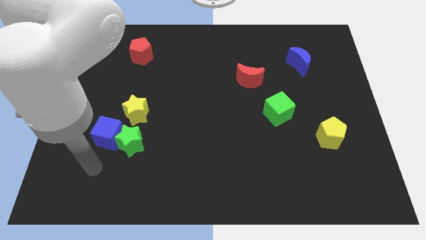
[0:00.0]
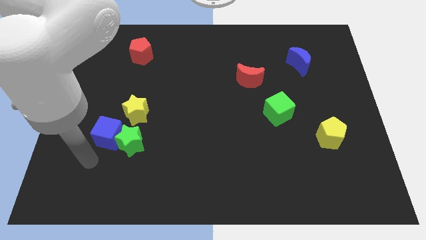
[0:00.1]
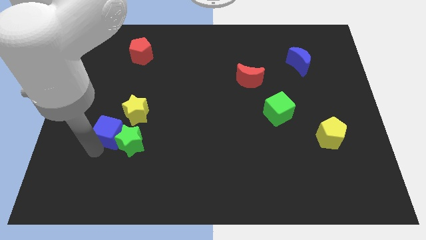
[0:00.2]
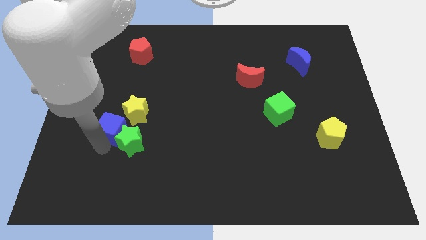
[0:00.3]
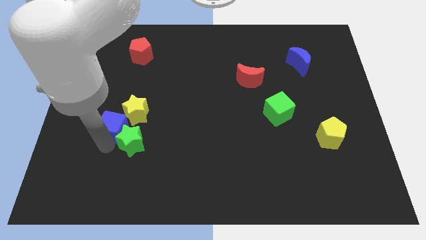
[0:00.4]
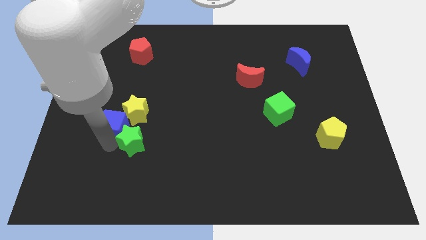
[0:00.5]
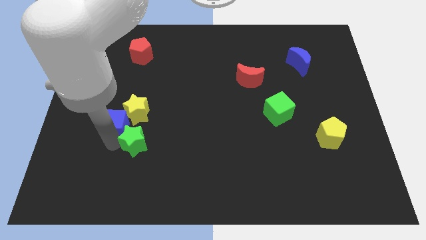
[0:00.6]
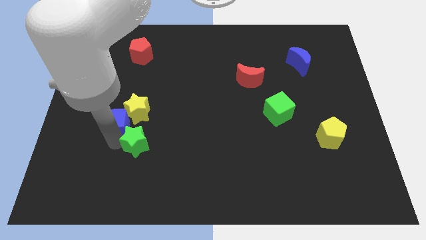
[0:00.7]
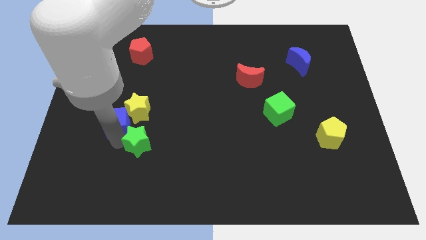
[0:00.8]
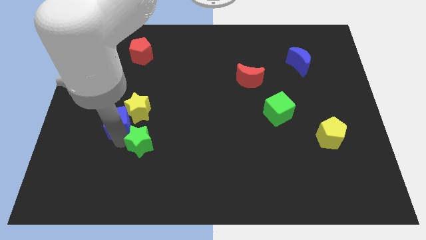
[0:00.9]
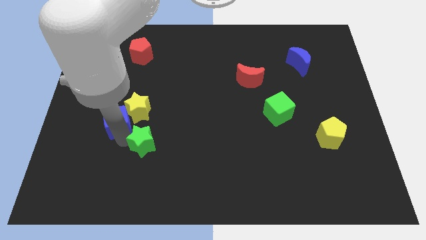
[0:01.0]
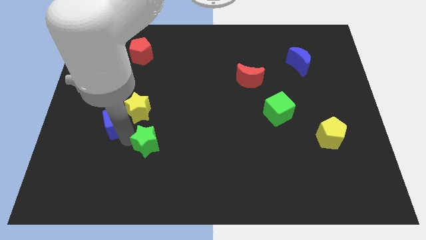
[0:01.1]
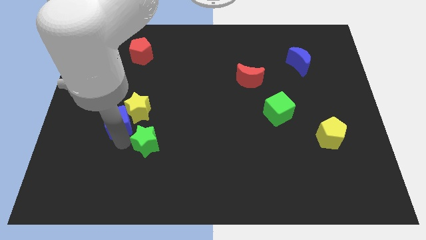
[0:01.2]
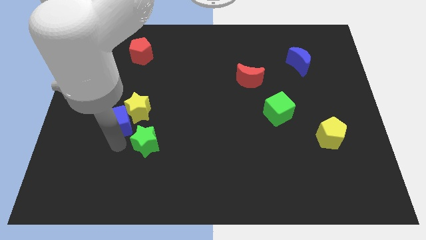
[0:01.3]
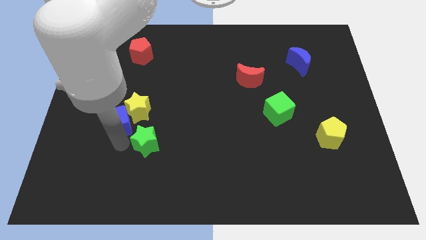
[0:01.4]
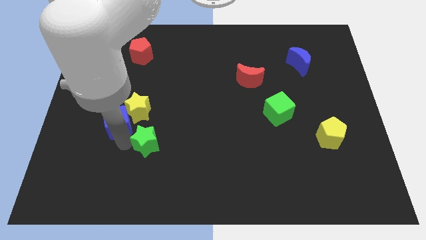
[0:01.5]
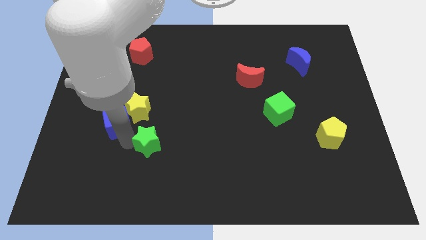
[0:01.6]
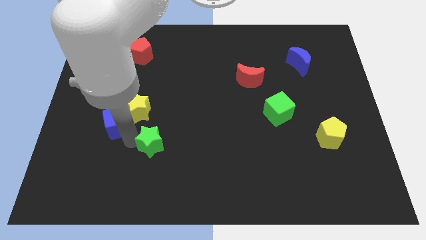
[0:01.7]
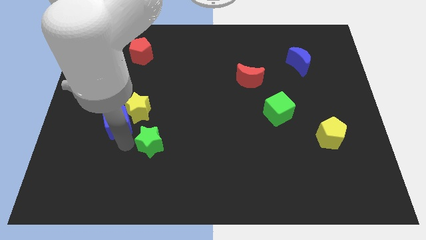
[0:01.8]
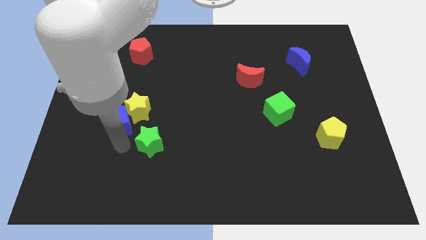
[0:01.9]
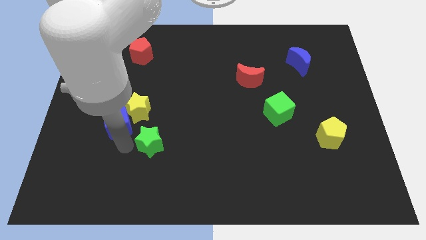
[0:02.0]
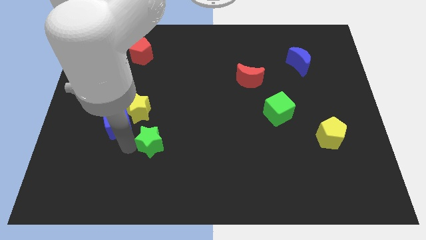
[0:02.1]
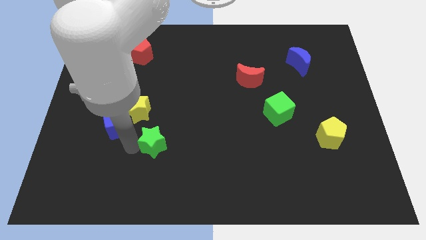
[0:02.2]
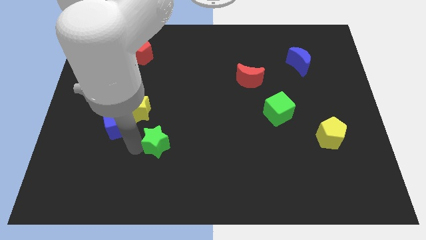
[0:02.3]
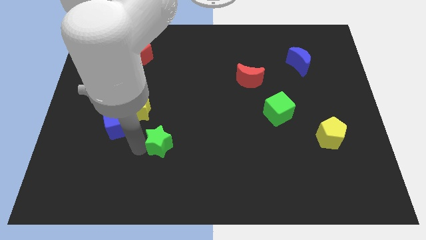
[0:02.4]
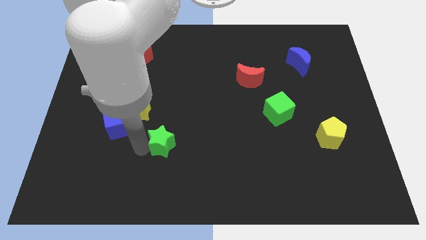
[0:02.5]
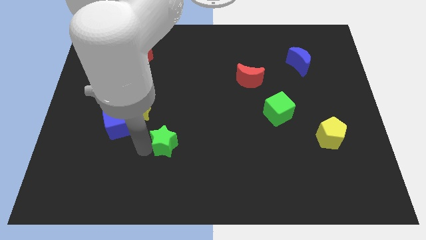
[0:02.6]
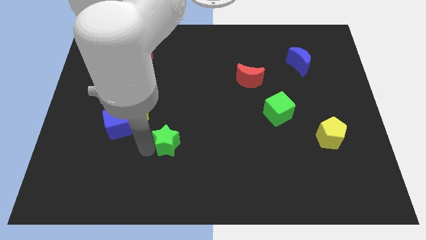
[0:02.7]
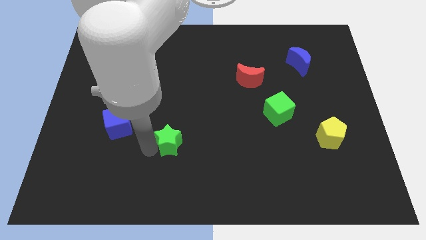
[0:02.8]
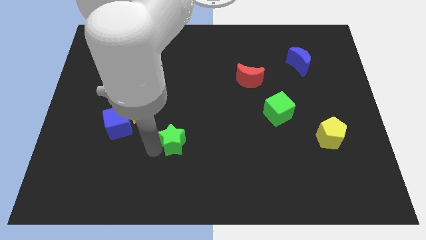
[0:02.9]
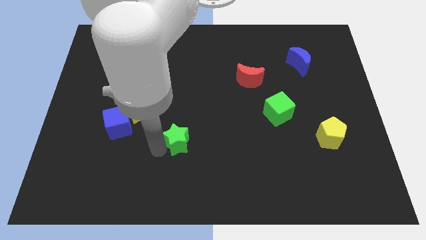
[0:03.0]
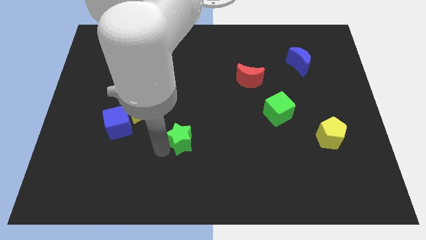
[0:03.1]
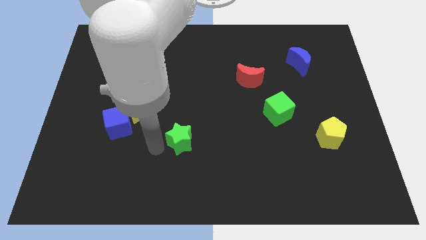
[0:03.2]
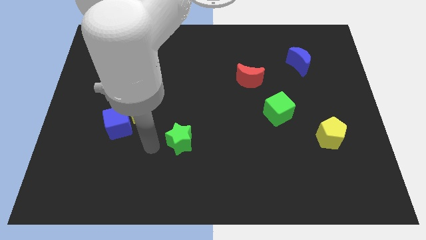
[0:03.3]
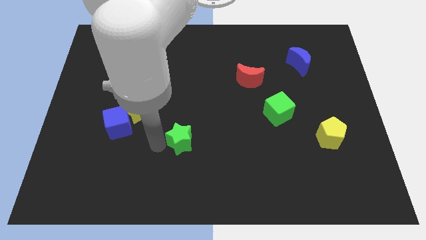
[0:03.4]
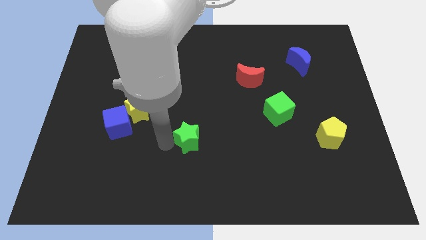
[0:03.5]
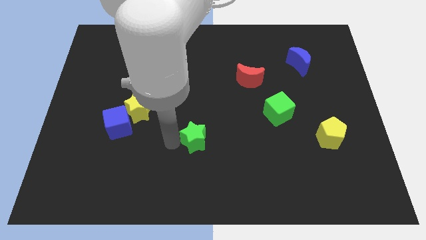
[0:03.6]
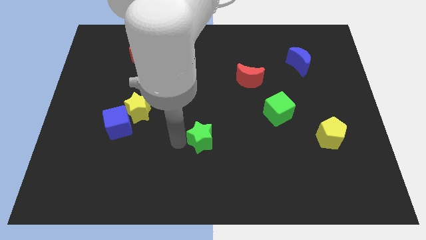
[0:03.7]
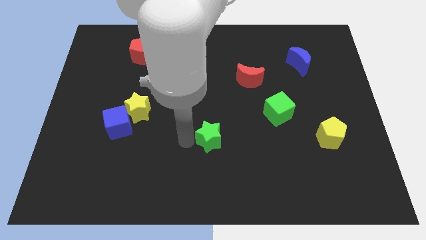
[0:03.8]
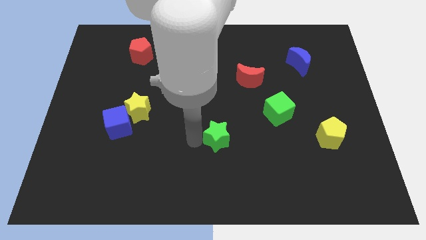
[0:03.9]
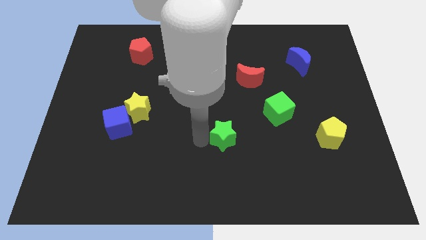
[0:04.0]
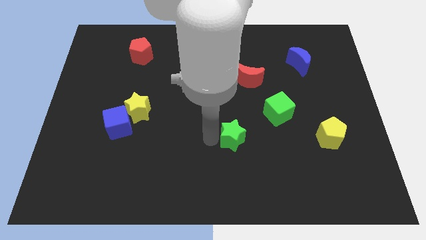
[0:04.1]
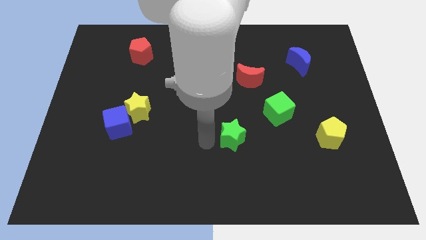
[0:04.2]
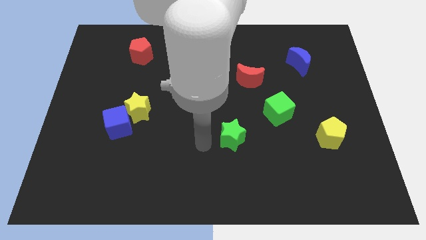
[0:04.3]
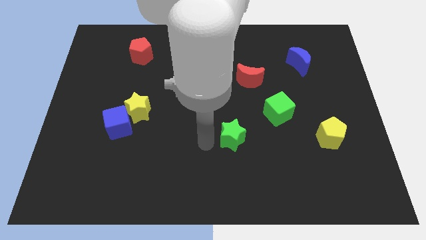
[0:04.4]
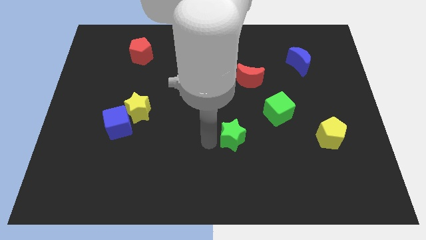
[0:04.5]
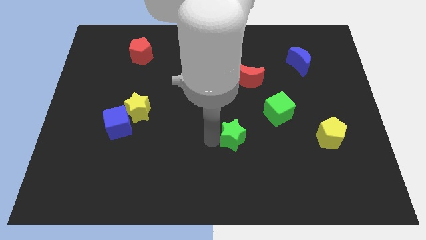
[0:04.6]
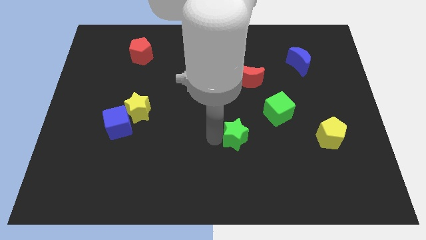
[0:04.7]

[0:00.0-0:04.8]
push the green star to the bottom left of the green cube

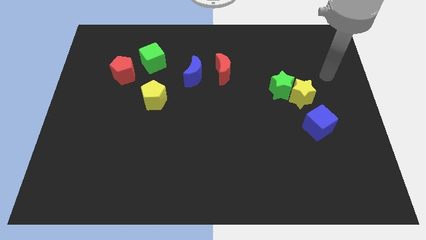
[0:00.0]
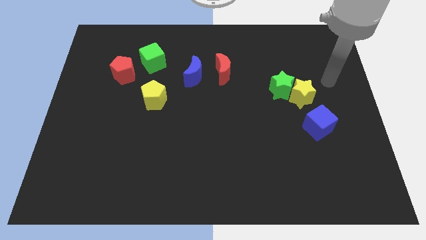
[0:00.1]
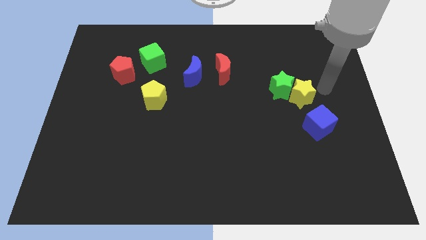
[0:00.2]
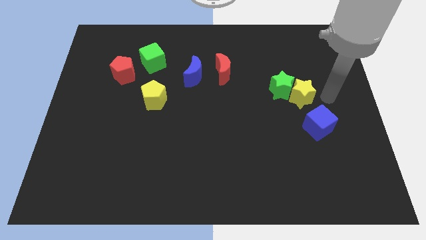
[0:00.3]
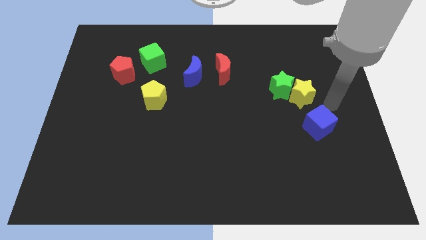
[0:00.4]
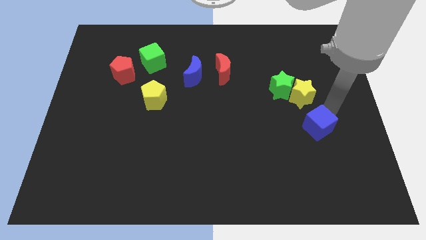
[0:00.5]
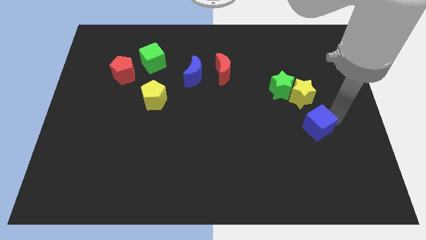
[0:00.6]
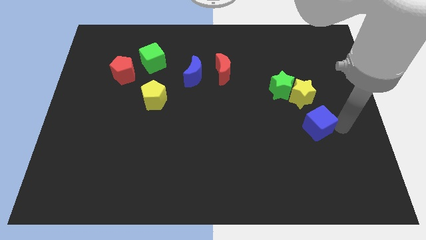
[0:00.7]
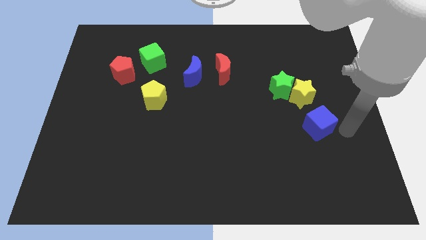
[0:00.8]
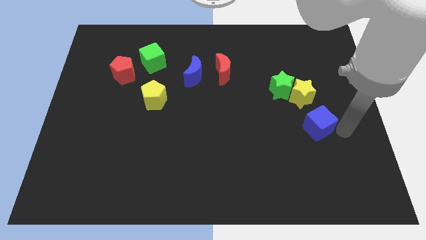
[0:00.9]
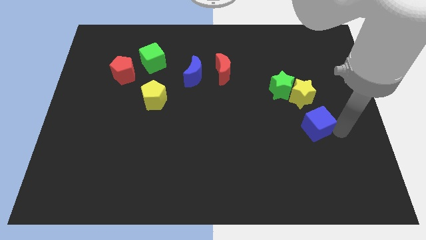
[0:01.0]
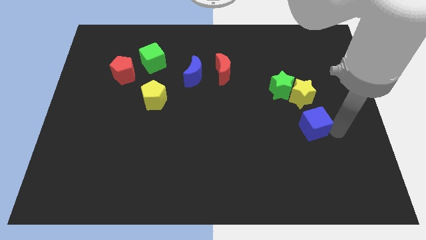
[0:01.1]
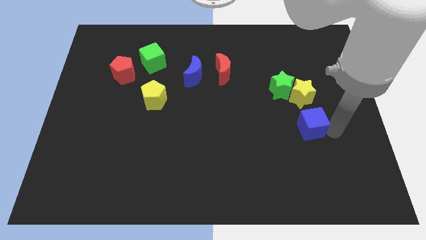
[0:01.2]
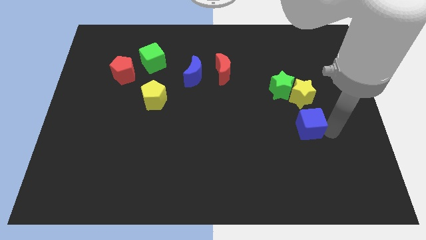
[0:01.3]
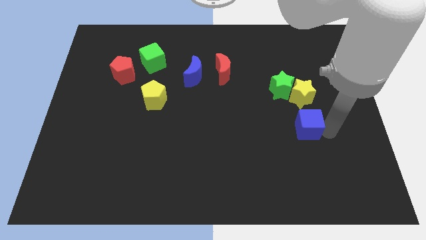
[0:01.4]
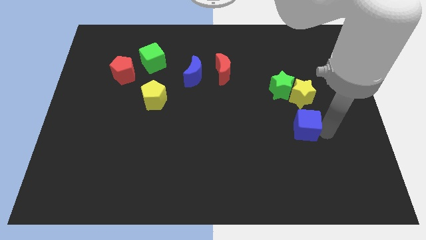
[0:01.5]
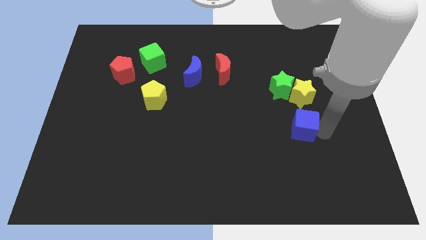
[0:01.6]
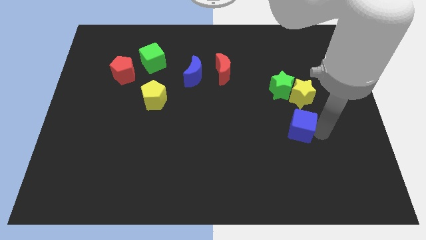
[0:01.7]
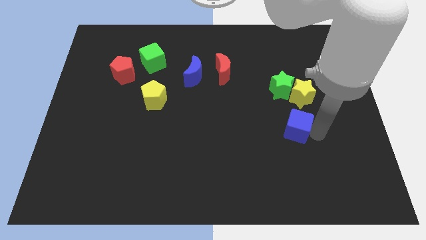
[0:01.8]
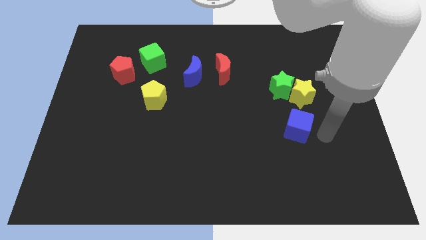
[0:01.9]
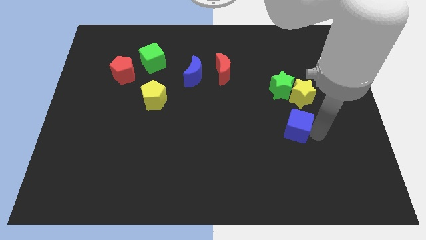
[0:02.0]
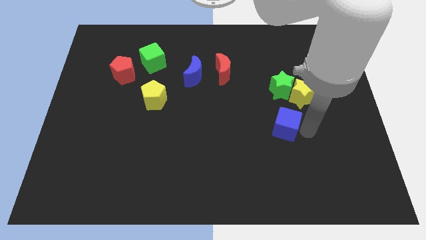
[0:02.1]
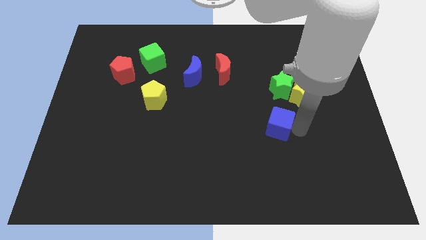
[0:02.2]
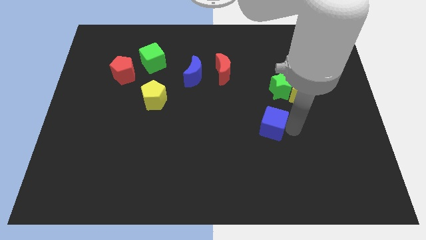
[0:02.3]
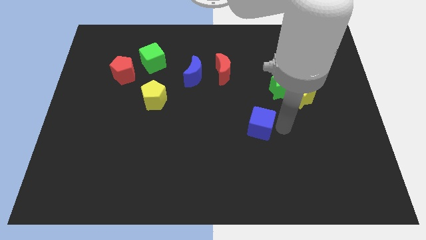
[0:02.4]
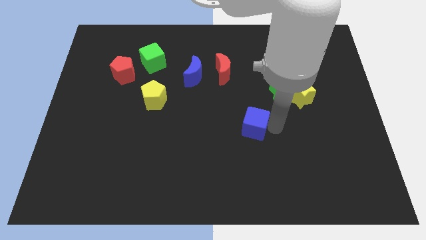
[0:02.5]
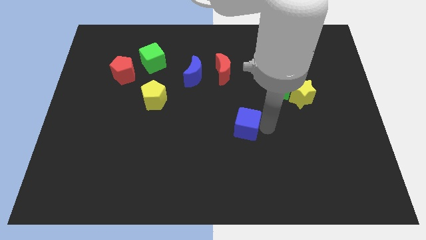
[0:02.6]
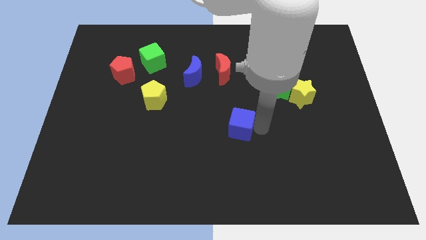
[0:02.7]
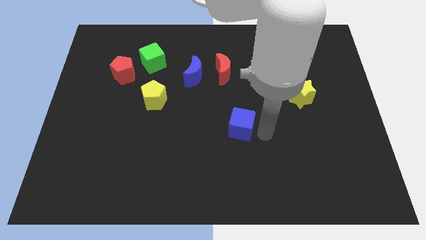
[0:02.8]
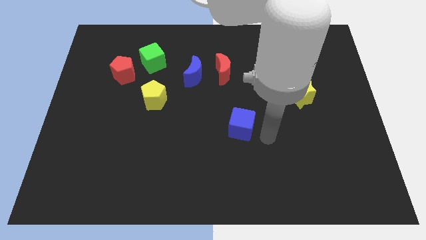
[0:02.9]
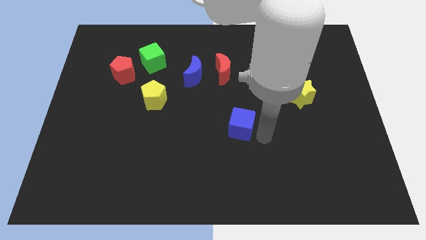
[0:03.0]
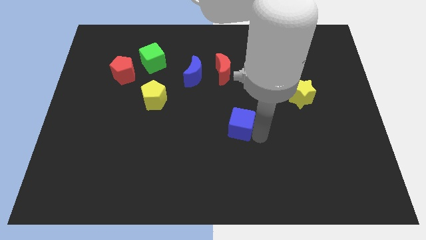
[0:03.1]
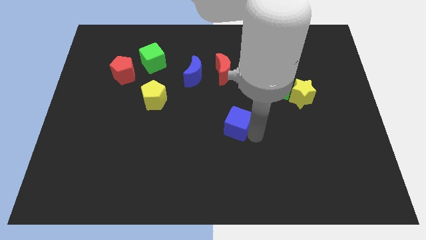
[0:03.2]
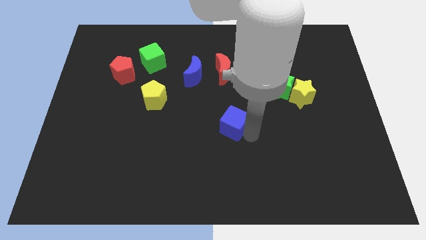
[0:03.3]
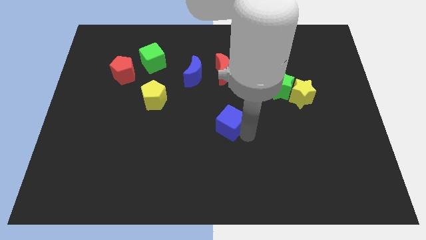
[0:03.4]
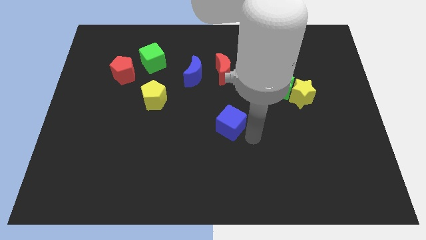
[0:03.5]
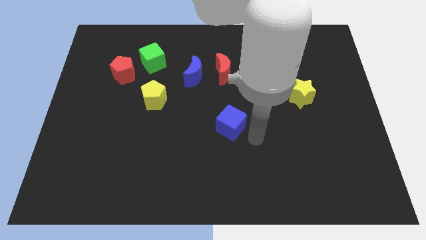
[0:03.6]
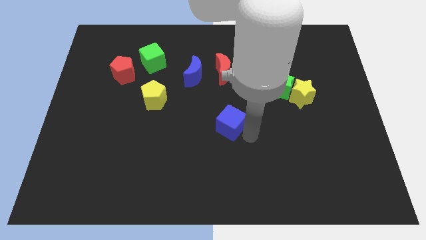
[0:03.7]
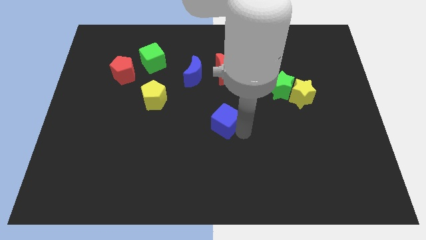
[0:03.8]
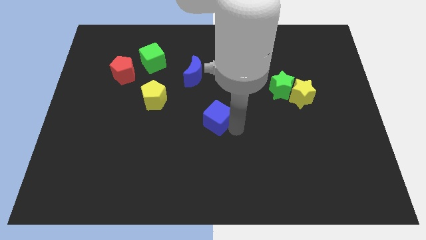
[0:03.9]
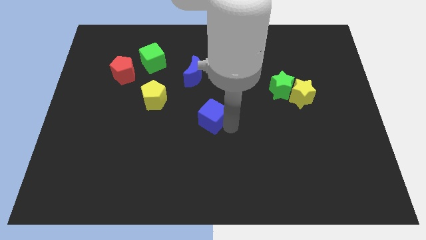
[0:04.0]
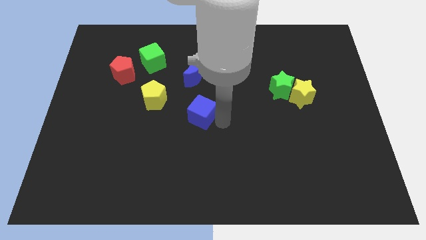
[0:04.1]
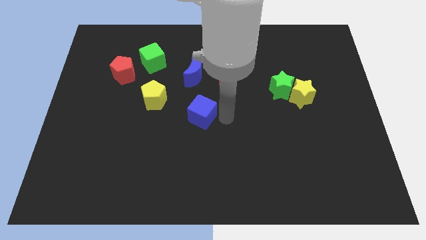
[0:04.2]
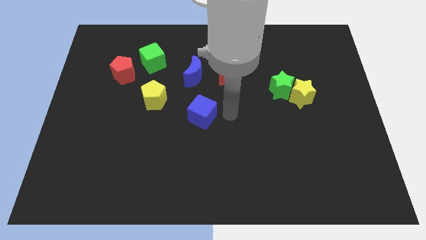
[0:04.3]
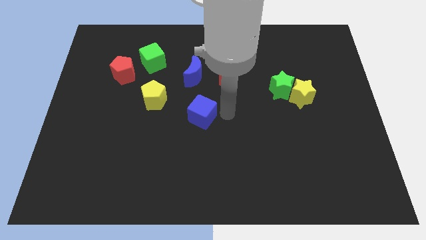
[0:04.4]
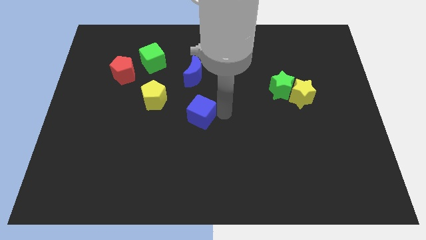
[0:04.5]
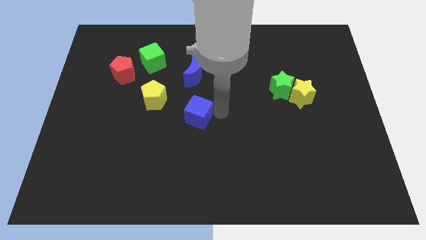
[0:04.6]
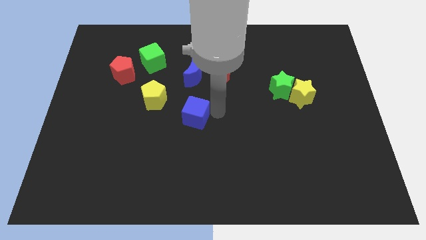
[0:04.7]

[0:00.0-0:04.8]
move the blue cube to the bottom right of the yellow pentagon
